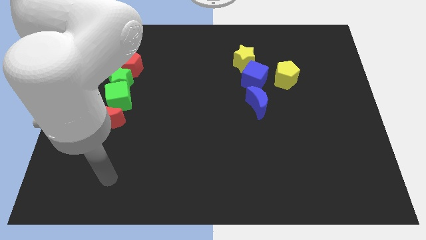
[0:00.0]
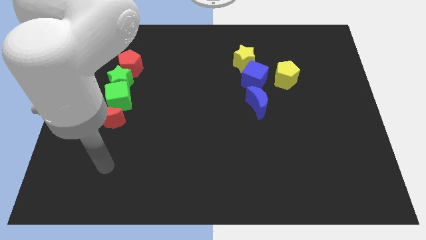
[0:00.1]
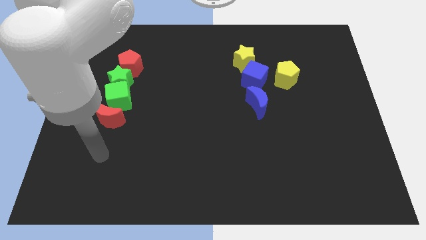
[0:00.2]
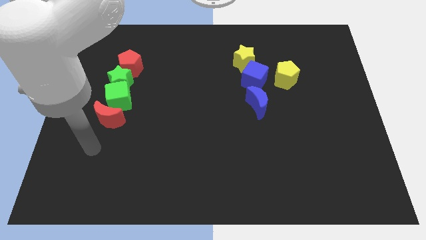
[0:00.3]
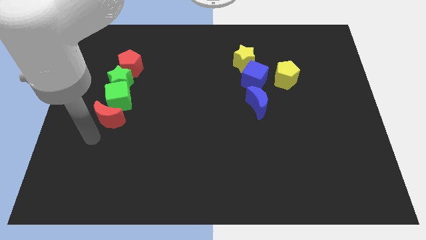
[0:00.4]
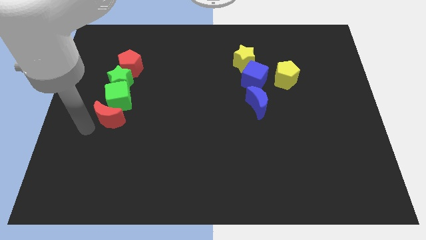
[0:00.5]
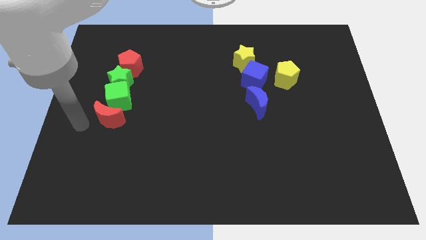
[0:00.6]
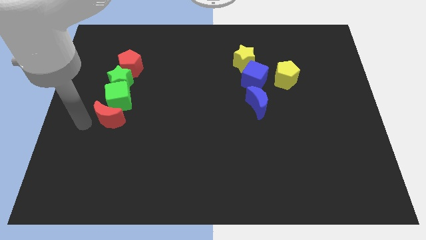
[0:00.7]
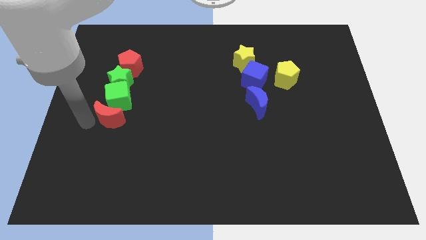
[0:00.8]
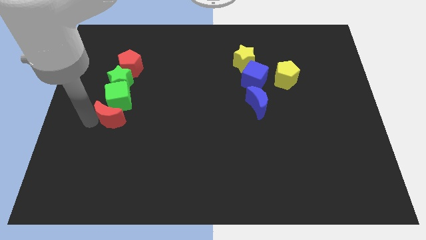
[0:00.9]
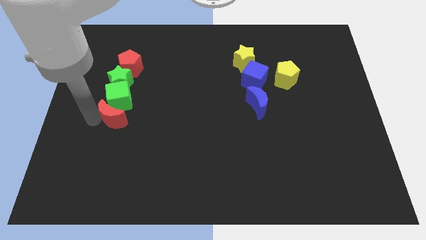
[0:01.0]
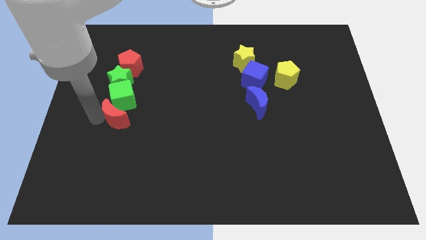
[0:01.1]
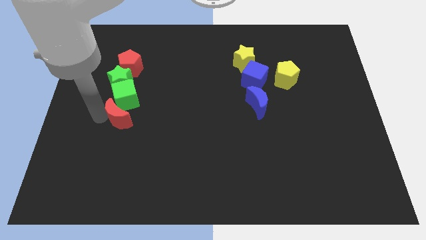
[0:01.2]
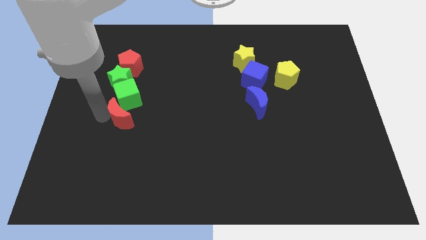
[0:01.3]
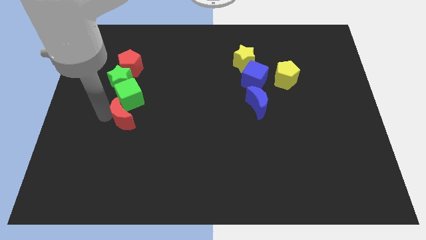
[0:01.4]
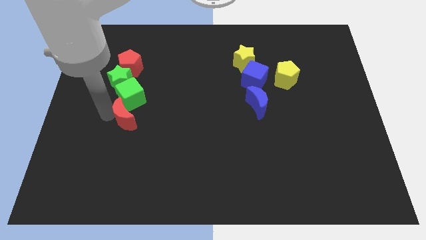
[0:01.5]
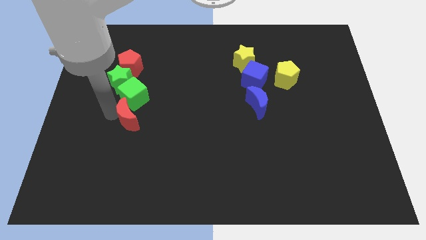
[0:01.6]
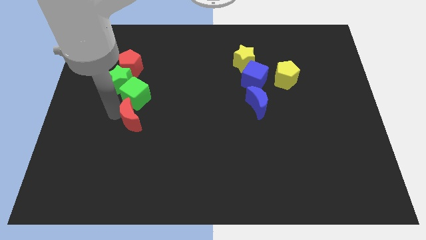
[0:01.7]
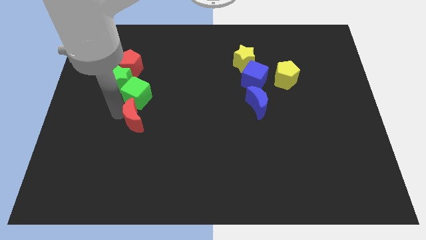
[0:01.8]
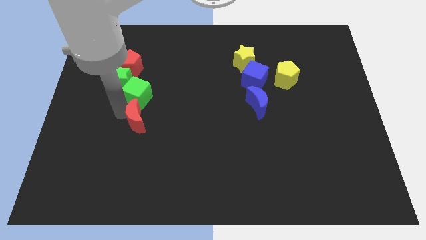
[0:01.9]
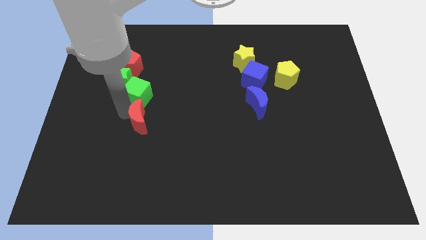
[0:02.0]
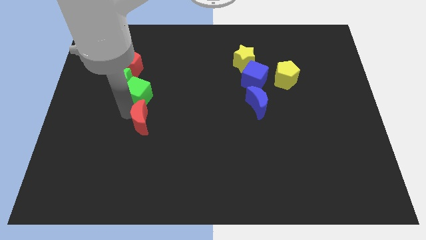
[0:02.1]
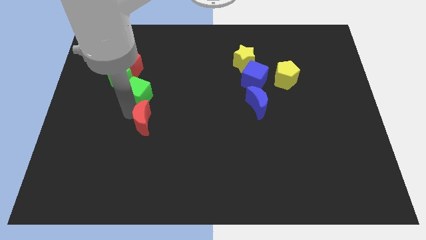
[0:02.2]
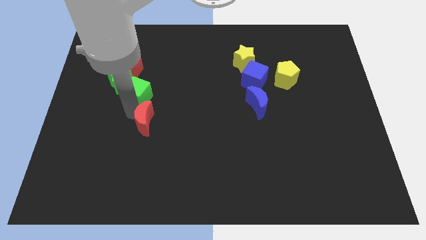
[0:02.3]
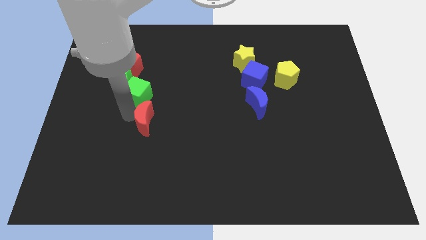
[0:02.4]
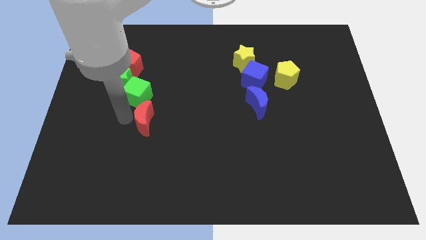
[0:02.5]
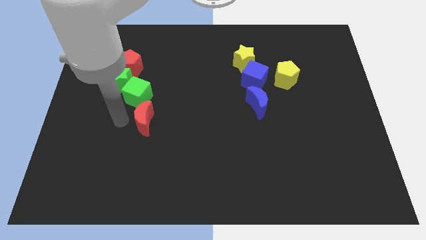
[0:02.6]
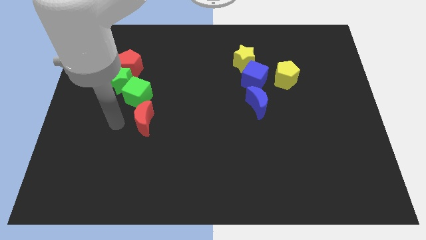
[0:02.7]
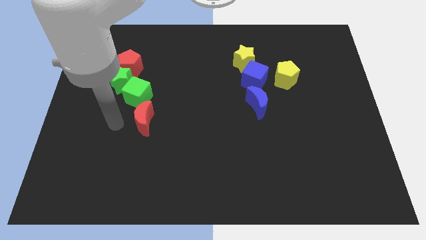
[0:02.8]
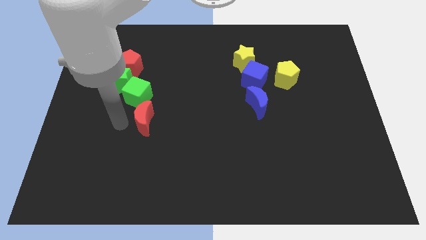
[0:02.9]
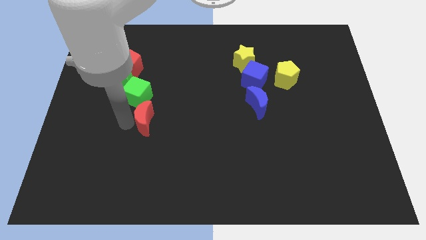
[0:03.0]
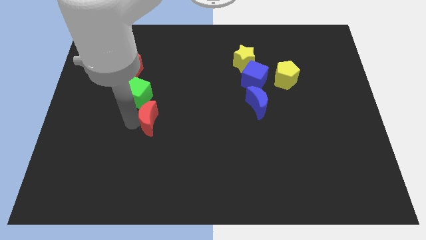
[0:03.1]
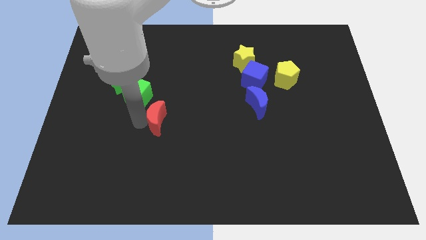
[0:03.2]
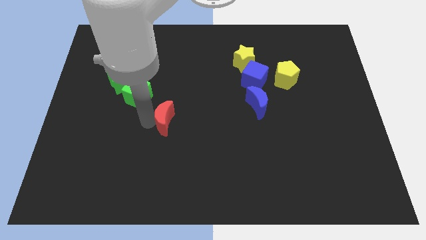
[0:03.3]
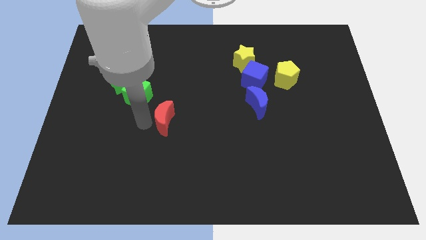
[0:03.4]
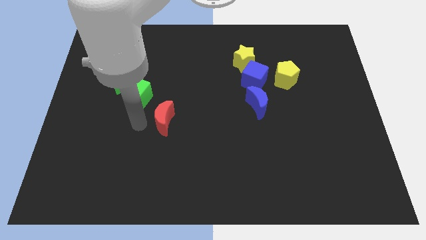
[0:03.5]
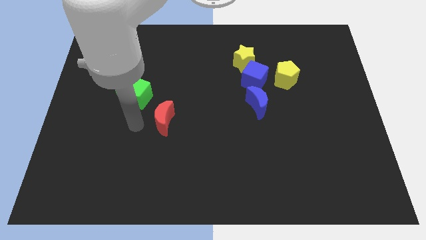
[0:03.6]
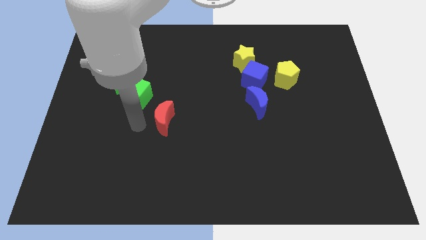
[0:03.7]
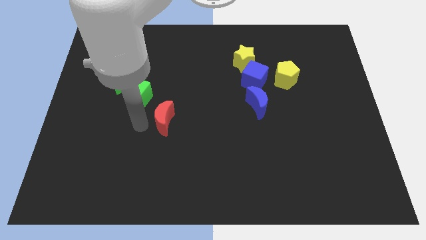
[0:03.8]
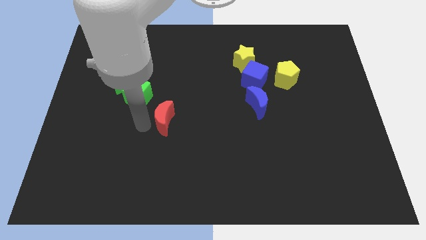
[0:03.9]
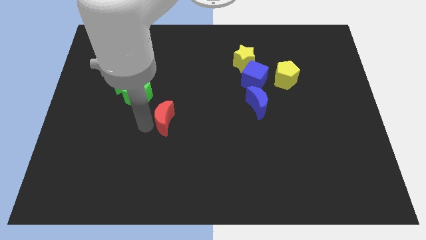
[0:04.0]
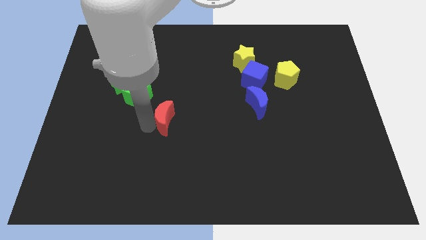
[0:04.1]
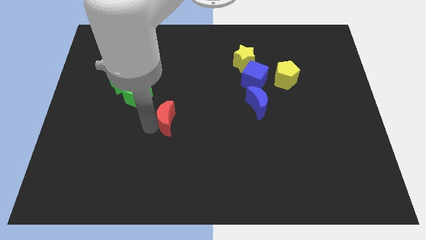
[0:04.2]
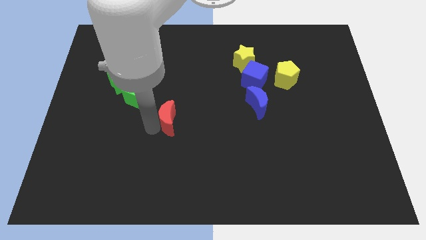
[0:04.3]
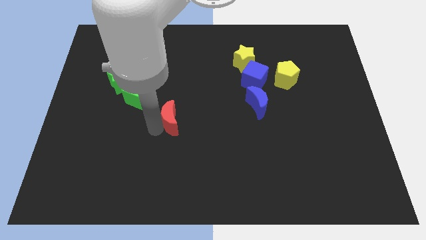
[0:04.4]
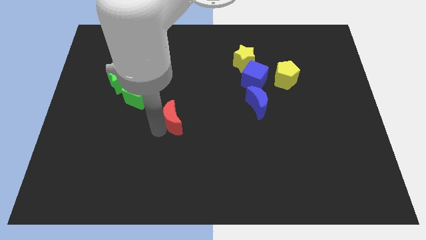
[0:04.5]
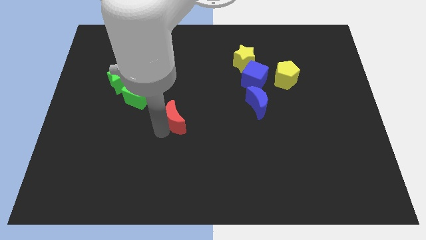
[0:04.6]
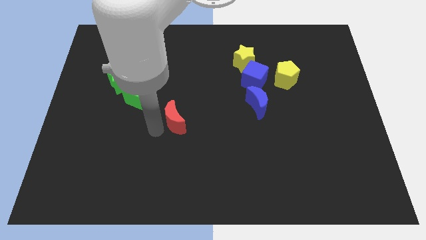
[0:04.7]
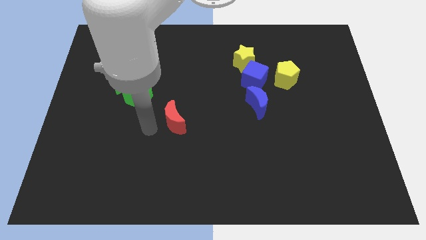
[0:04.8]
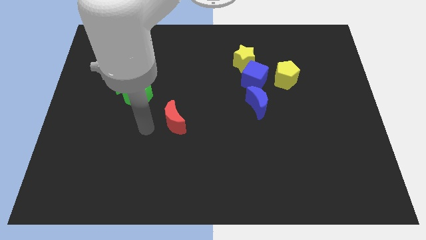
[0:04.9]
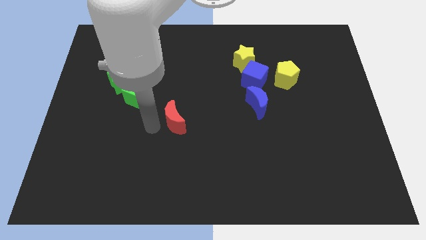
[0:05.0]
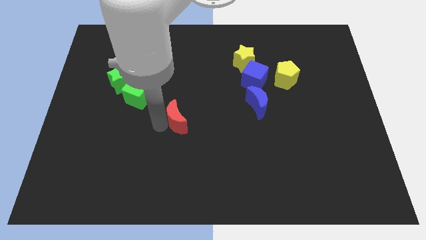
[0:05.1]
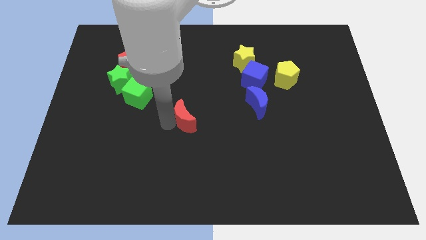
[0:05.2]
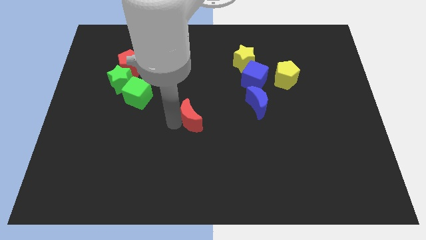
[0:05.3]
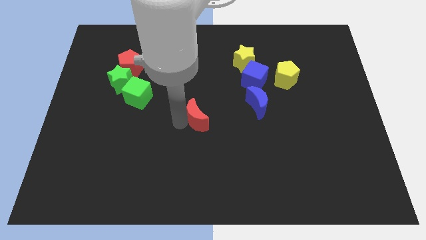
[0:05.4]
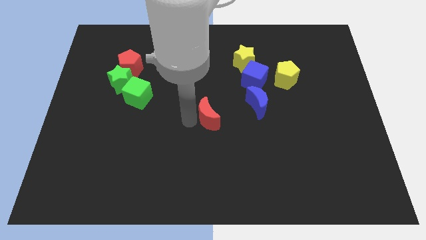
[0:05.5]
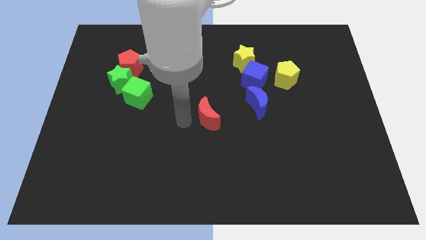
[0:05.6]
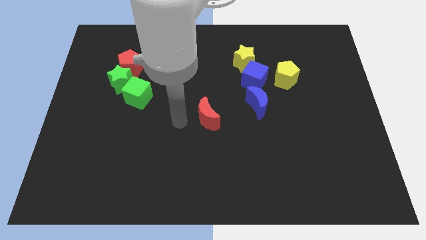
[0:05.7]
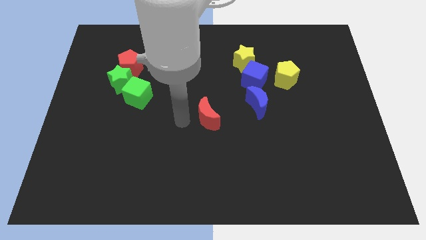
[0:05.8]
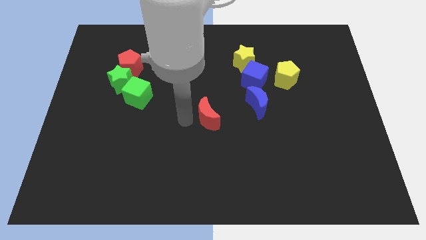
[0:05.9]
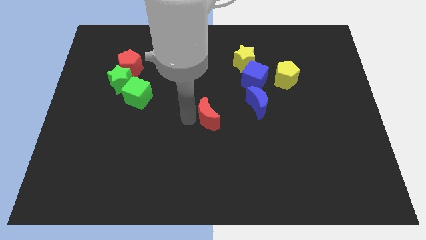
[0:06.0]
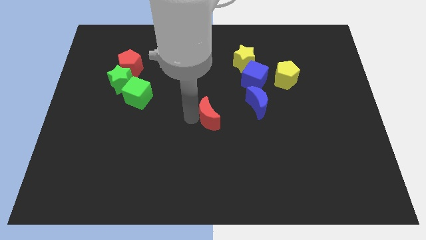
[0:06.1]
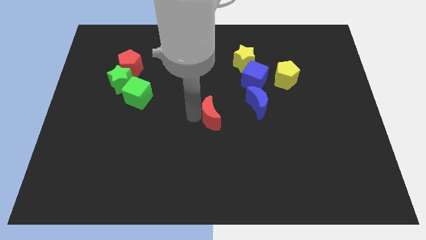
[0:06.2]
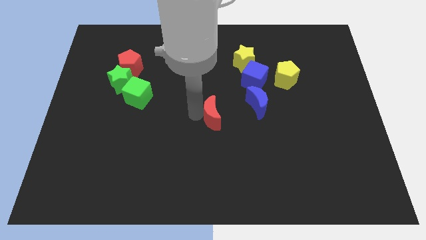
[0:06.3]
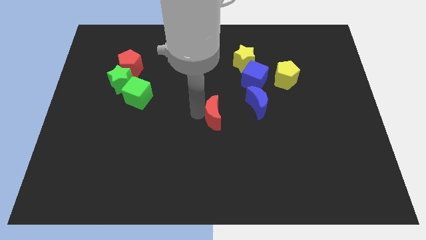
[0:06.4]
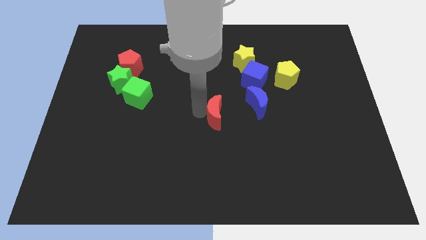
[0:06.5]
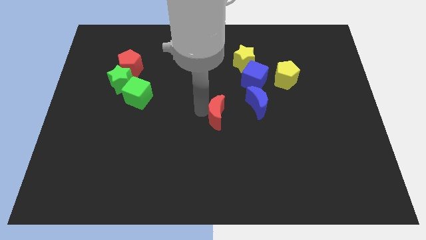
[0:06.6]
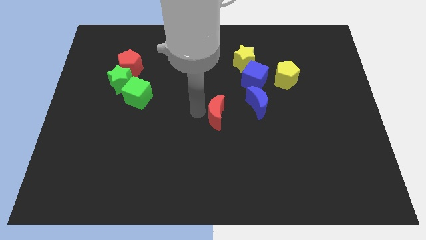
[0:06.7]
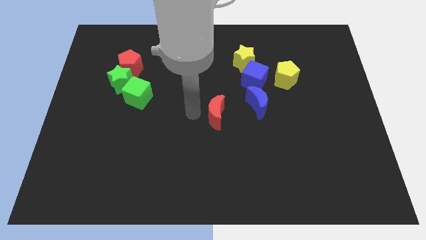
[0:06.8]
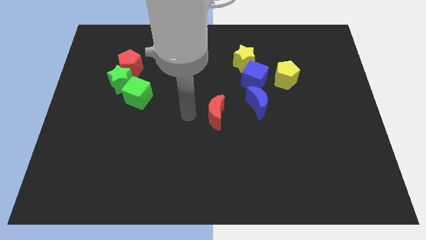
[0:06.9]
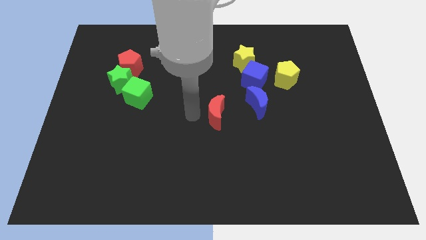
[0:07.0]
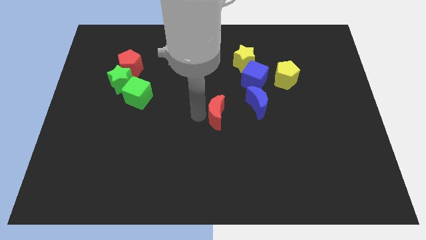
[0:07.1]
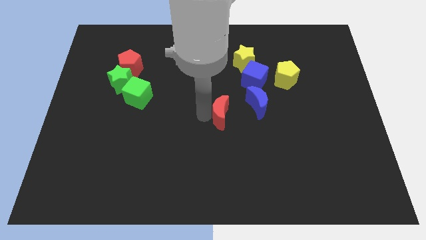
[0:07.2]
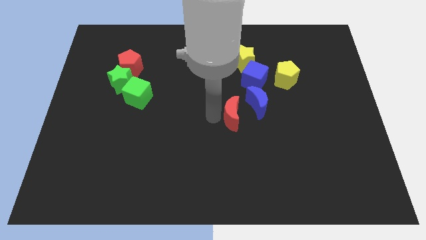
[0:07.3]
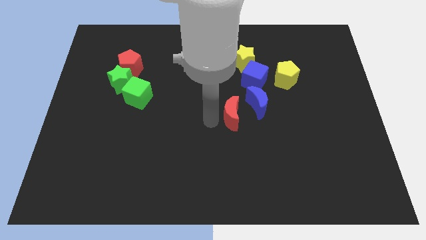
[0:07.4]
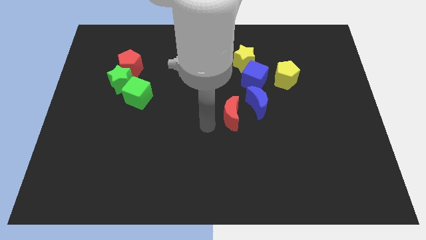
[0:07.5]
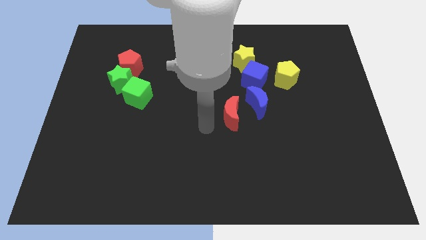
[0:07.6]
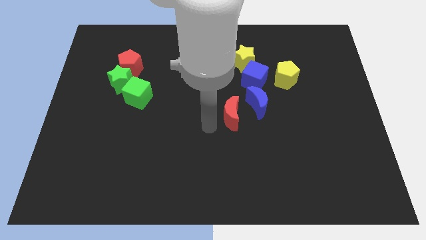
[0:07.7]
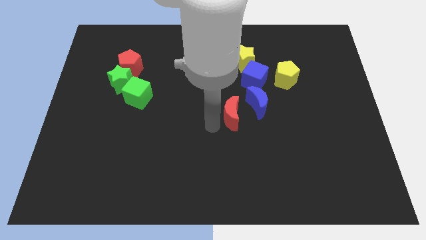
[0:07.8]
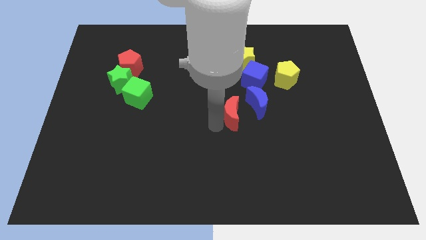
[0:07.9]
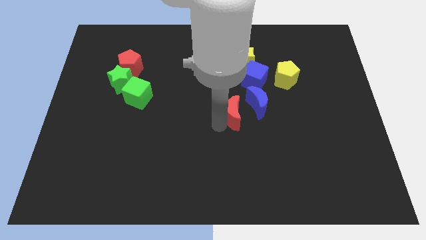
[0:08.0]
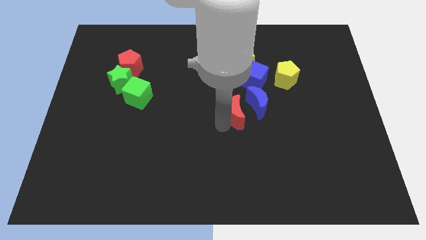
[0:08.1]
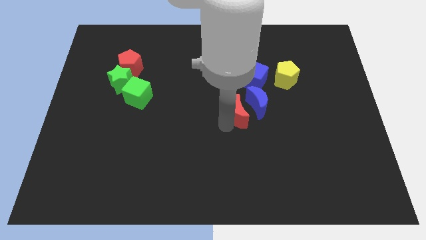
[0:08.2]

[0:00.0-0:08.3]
push the red moon to the blue moon
